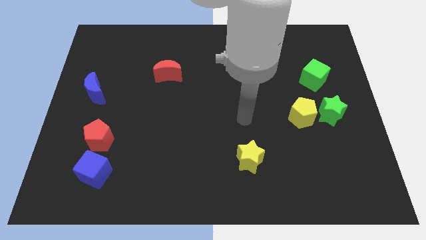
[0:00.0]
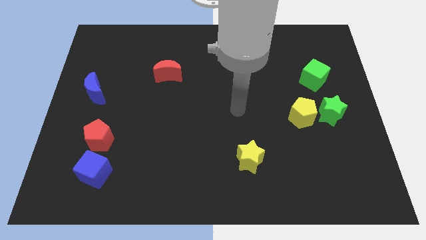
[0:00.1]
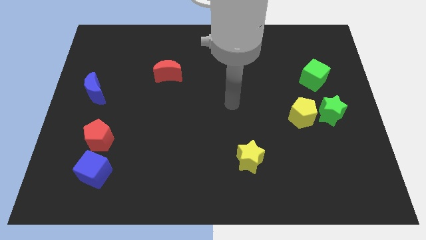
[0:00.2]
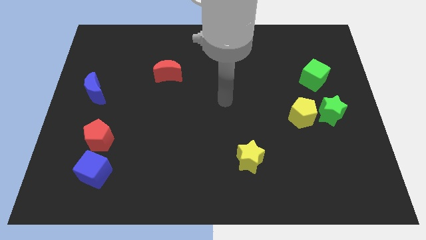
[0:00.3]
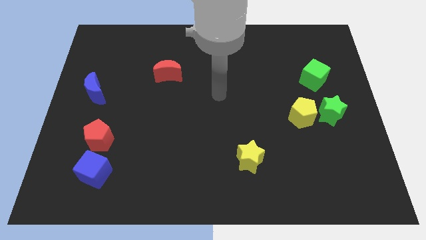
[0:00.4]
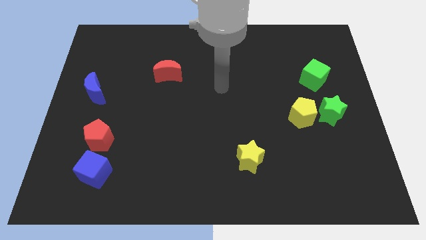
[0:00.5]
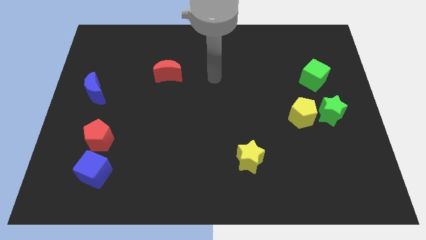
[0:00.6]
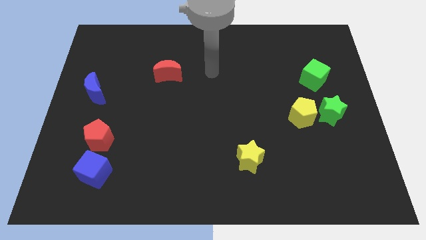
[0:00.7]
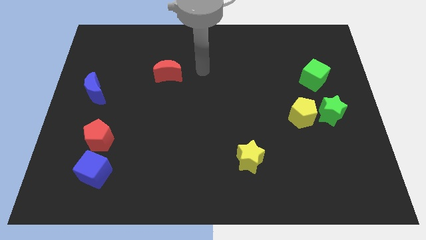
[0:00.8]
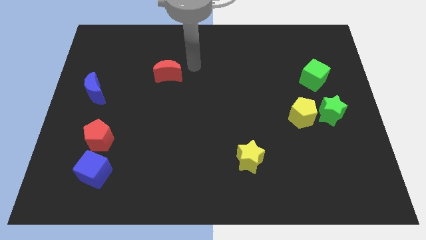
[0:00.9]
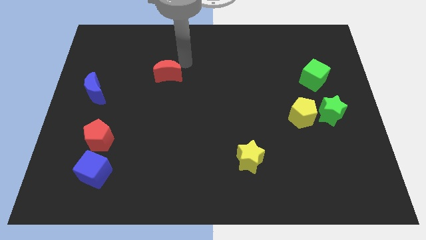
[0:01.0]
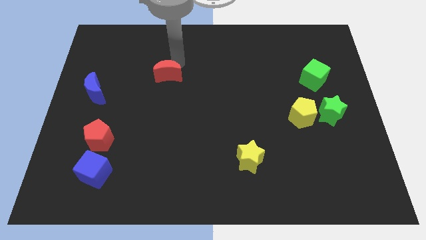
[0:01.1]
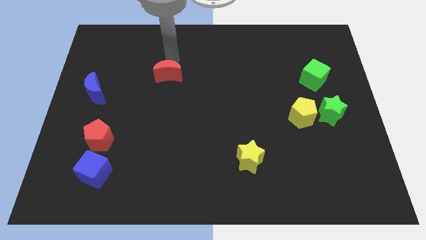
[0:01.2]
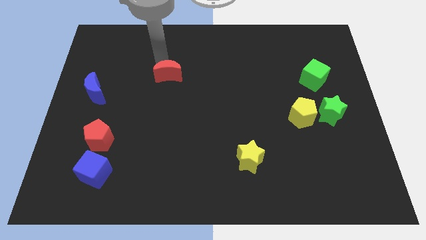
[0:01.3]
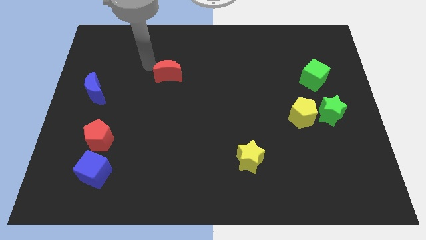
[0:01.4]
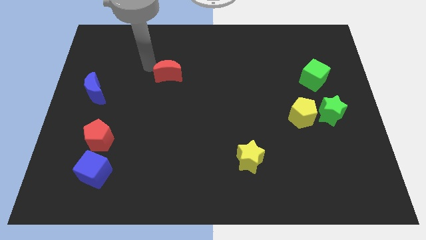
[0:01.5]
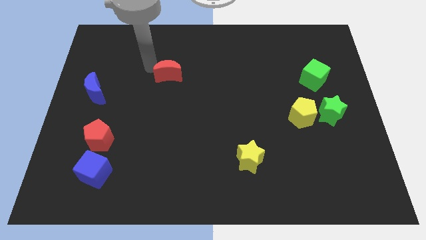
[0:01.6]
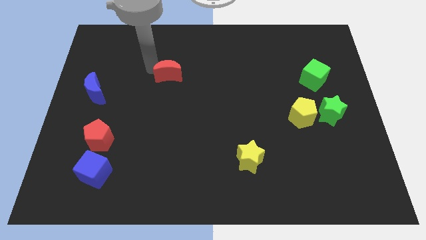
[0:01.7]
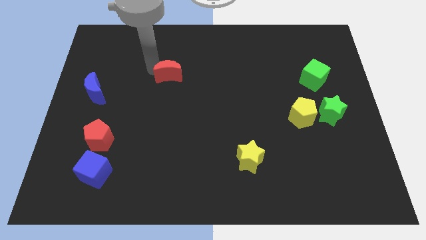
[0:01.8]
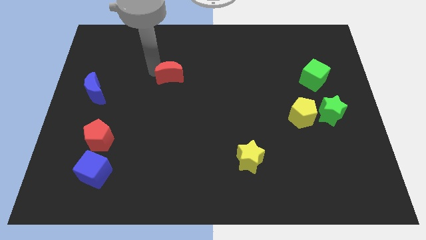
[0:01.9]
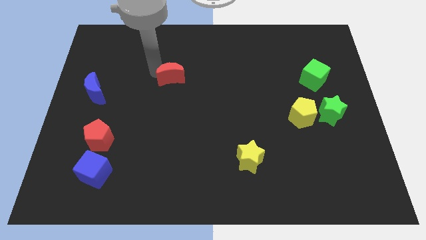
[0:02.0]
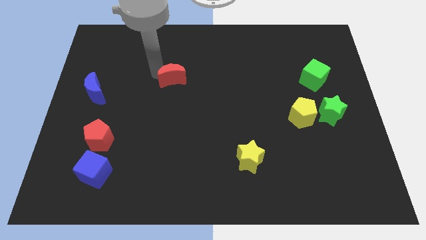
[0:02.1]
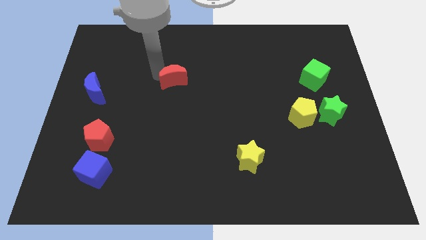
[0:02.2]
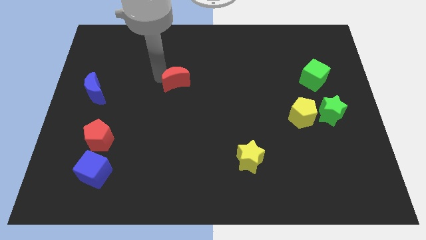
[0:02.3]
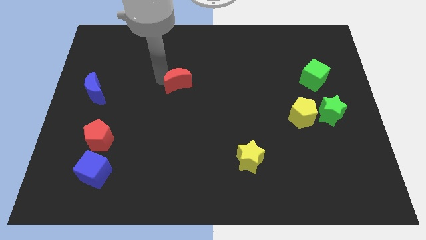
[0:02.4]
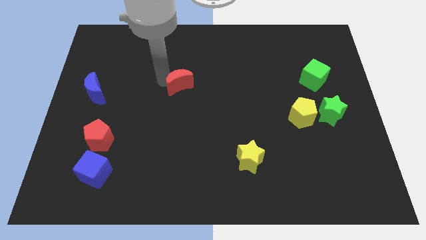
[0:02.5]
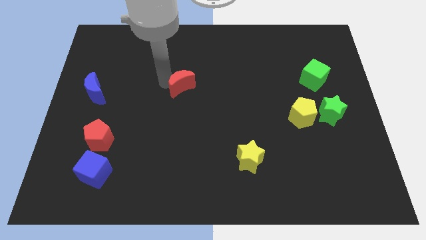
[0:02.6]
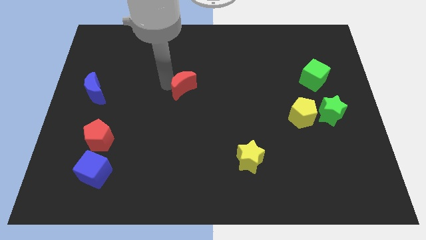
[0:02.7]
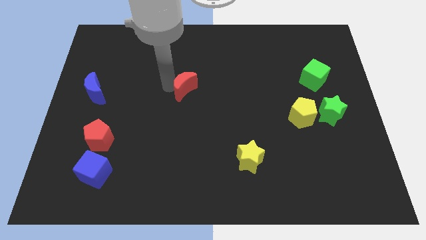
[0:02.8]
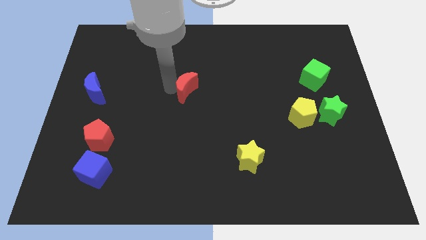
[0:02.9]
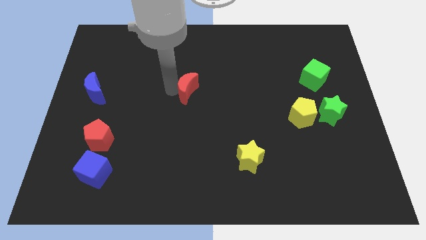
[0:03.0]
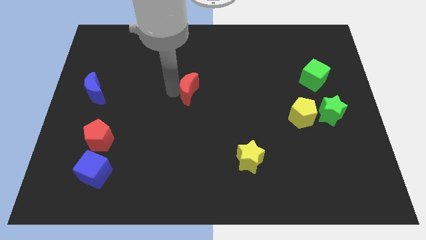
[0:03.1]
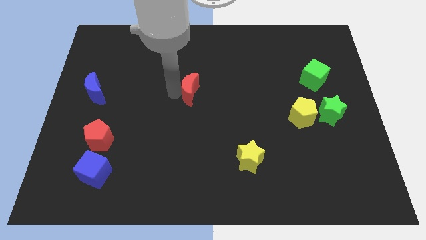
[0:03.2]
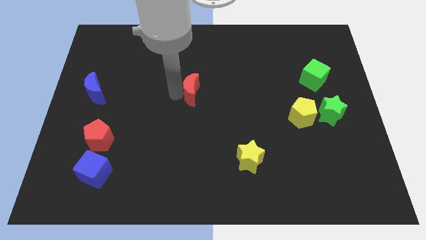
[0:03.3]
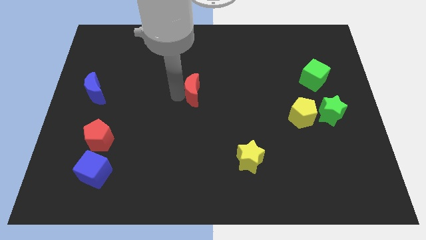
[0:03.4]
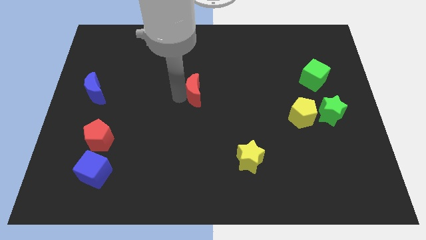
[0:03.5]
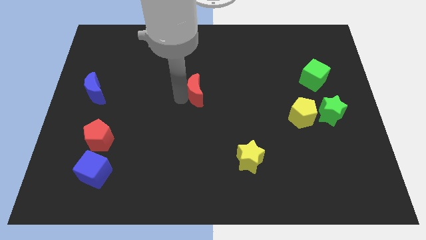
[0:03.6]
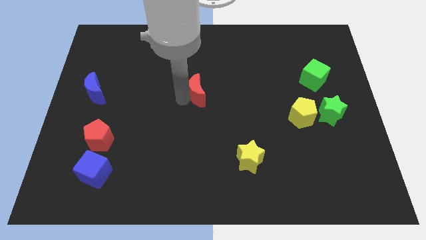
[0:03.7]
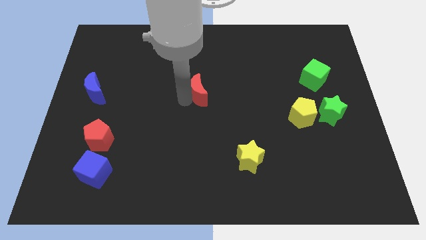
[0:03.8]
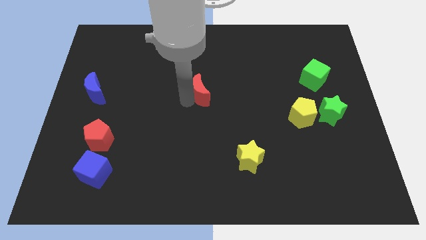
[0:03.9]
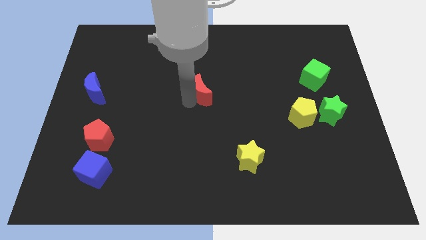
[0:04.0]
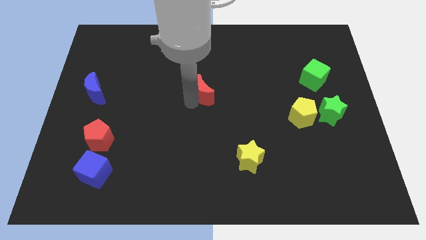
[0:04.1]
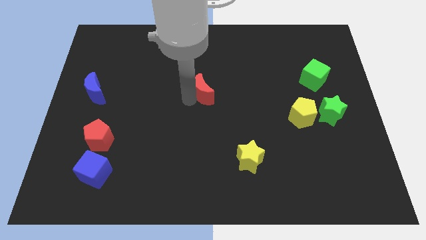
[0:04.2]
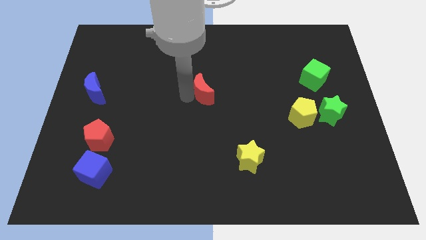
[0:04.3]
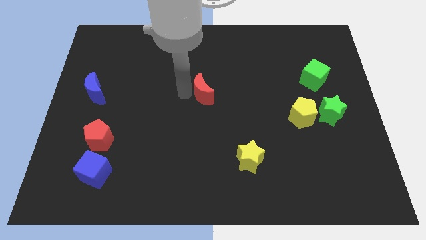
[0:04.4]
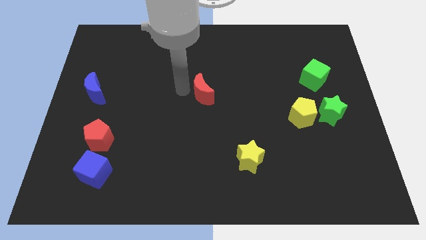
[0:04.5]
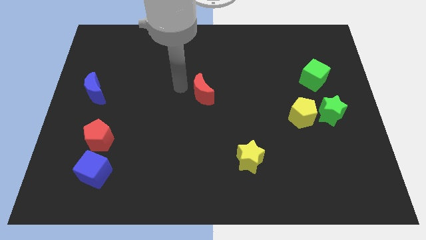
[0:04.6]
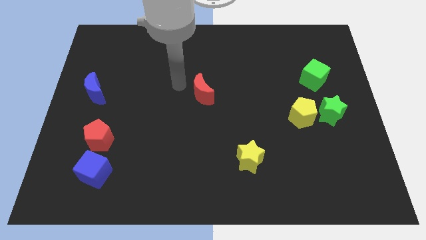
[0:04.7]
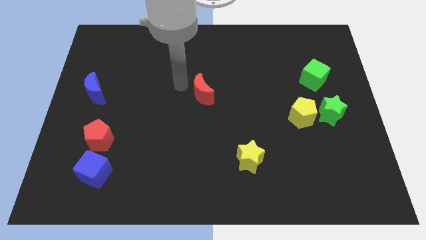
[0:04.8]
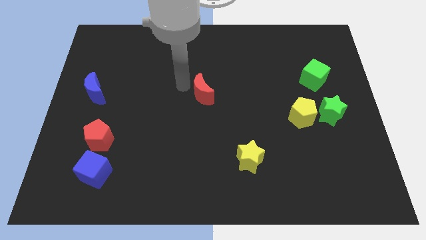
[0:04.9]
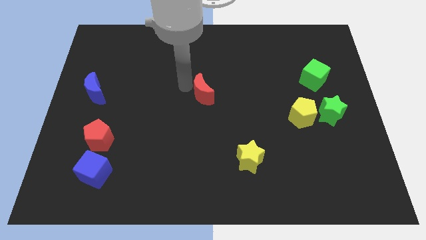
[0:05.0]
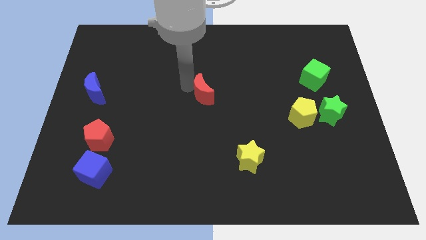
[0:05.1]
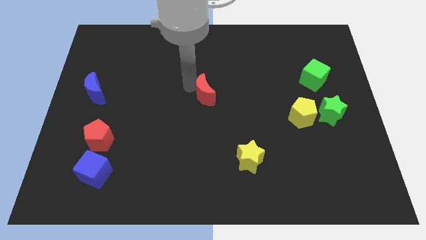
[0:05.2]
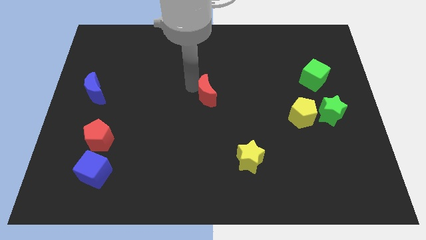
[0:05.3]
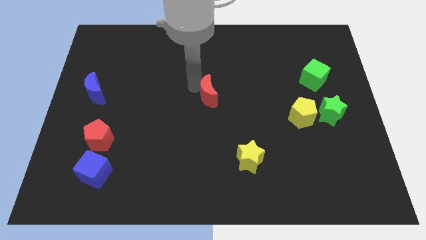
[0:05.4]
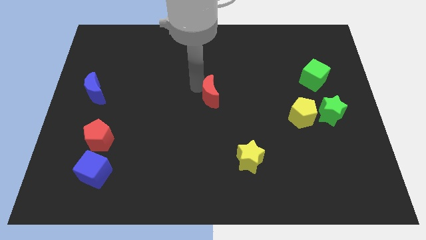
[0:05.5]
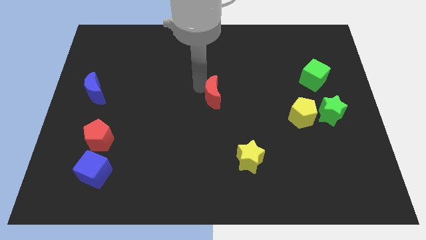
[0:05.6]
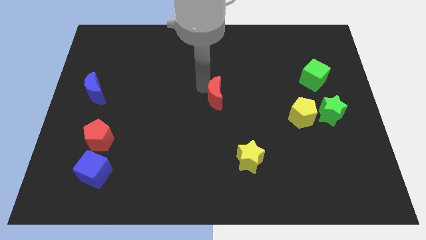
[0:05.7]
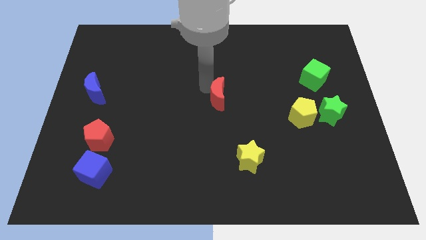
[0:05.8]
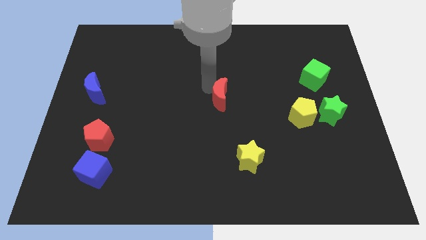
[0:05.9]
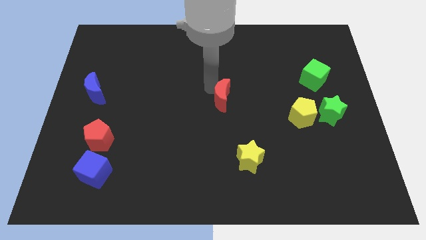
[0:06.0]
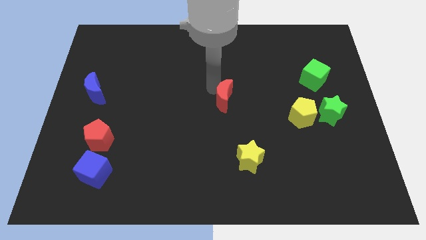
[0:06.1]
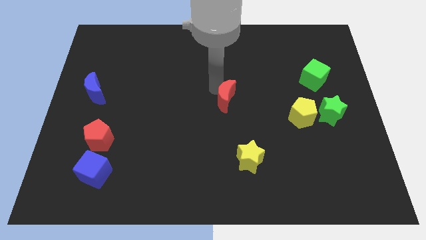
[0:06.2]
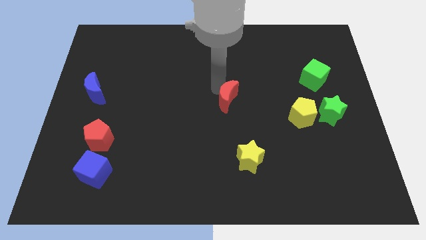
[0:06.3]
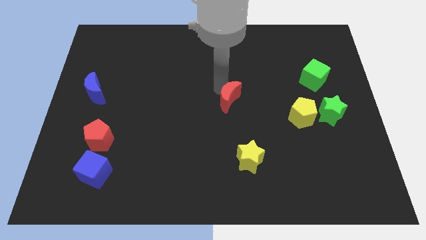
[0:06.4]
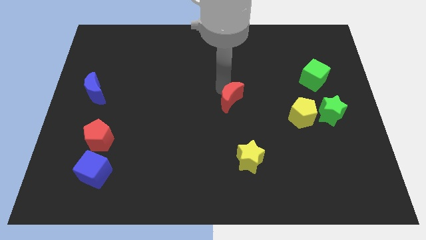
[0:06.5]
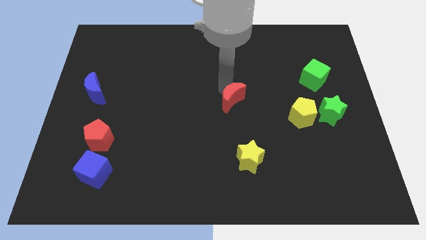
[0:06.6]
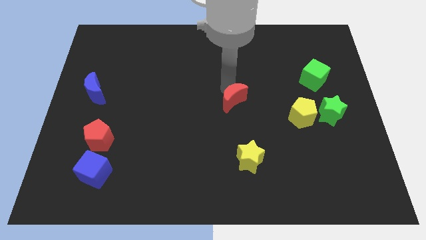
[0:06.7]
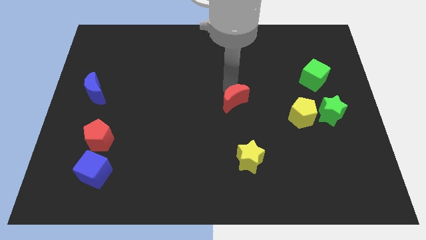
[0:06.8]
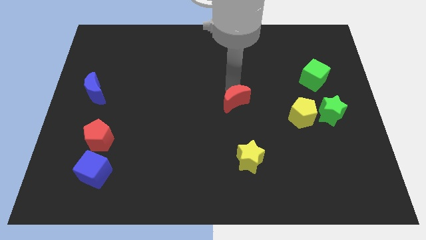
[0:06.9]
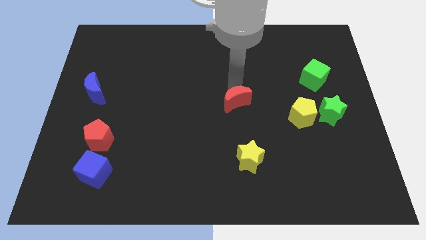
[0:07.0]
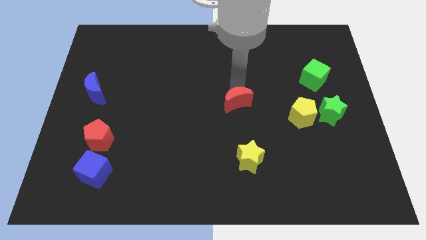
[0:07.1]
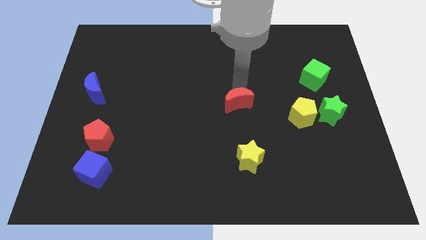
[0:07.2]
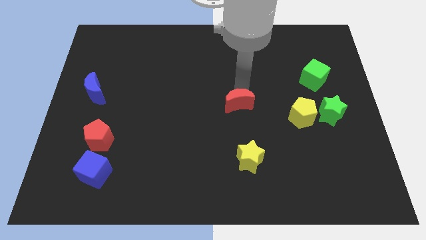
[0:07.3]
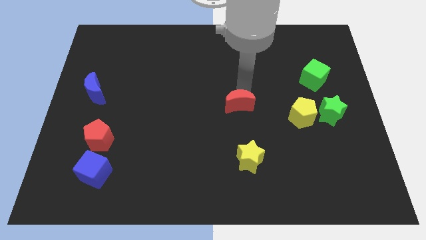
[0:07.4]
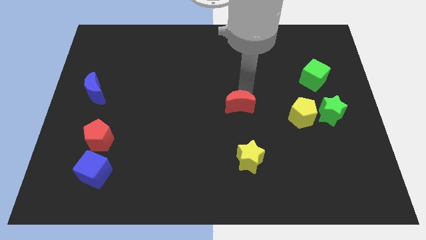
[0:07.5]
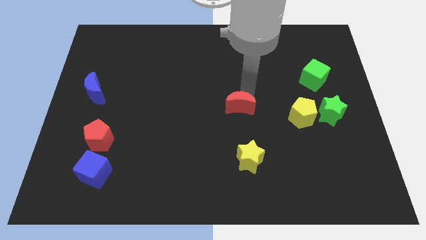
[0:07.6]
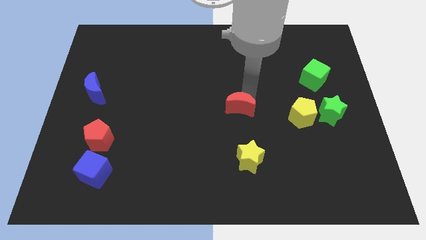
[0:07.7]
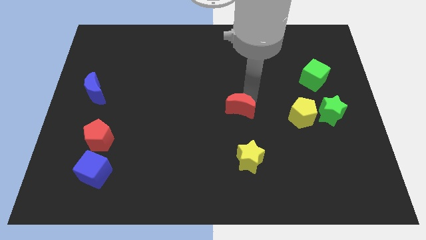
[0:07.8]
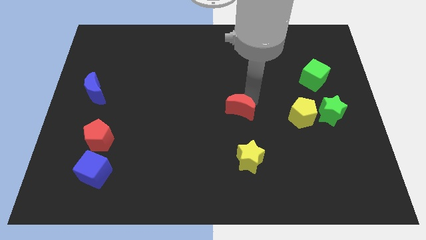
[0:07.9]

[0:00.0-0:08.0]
slide the red moon down and to the right diagonally
